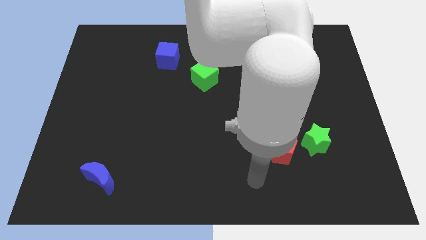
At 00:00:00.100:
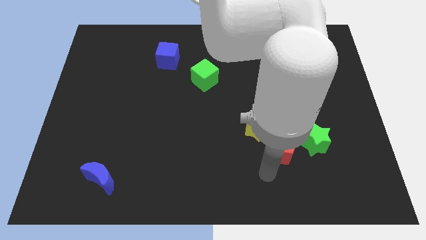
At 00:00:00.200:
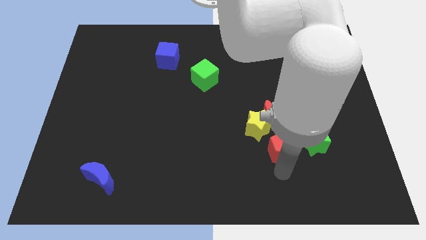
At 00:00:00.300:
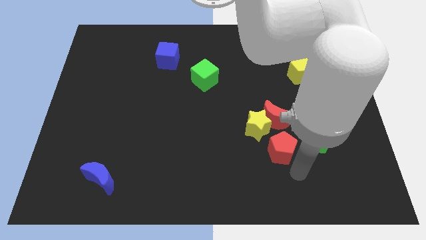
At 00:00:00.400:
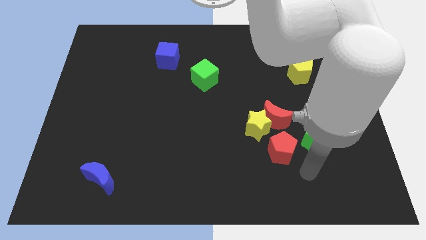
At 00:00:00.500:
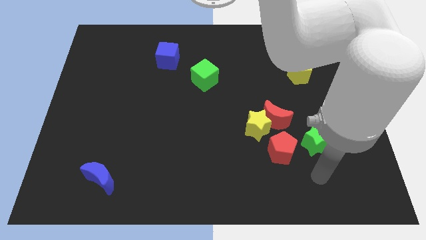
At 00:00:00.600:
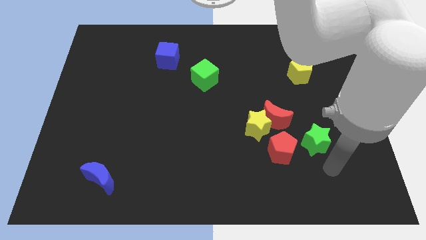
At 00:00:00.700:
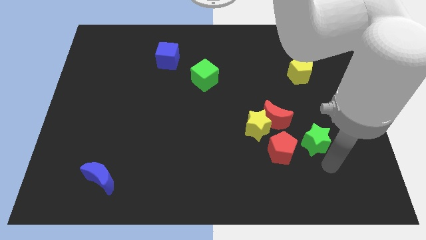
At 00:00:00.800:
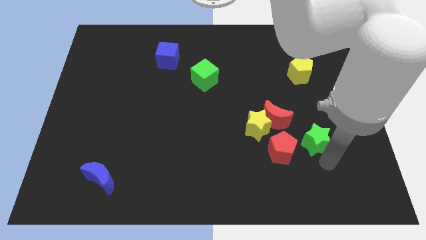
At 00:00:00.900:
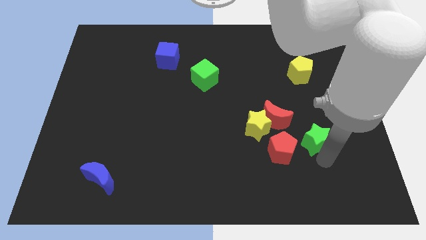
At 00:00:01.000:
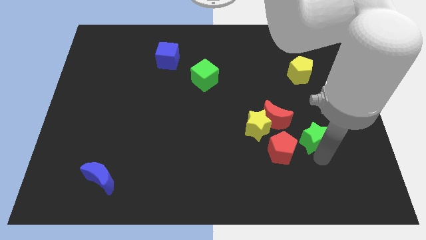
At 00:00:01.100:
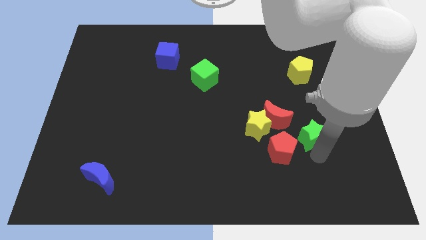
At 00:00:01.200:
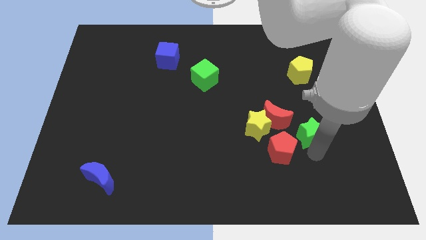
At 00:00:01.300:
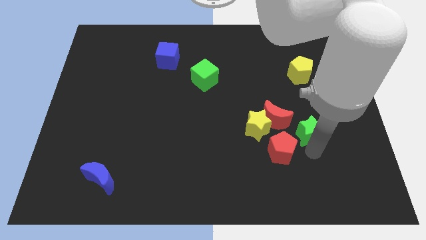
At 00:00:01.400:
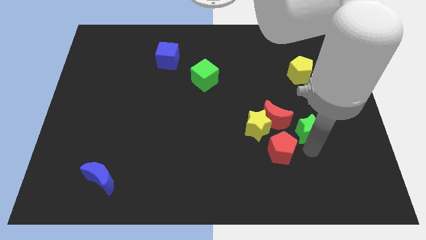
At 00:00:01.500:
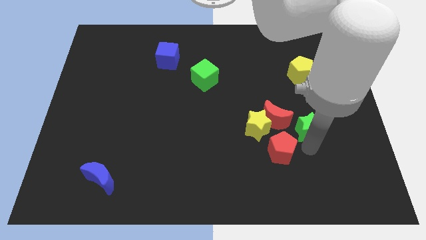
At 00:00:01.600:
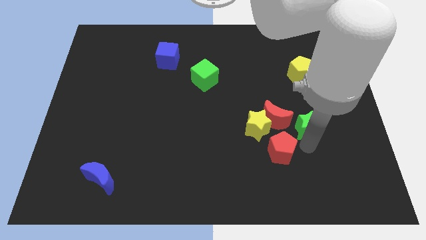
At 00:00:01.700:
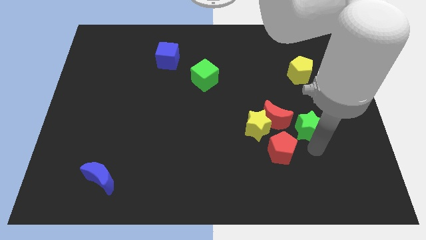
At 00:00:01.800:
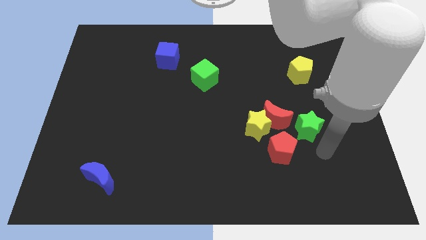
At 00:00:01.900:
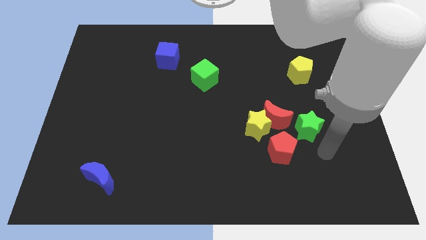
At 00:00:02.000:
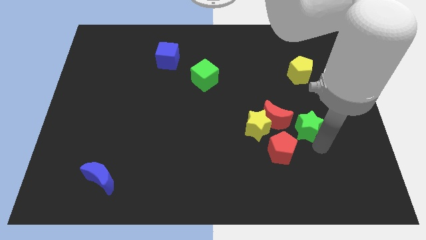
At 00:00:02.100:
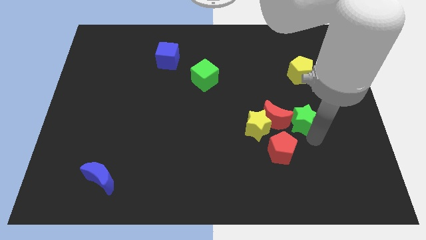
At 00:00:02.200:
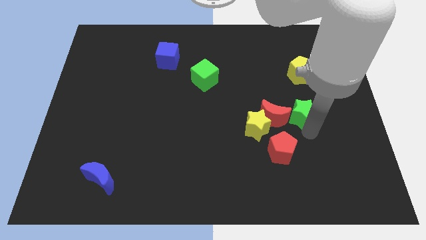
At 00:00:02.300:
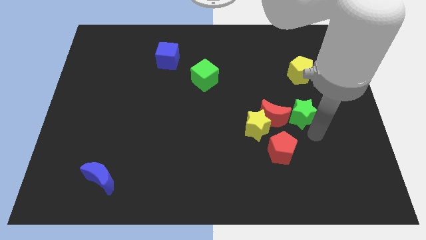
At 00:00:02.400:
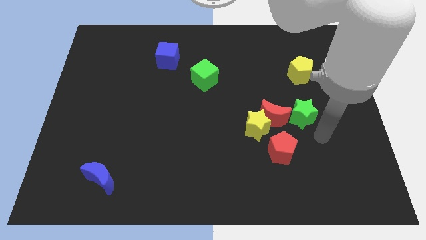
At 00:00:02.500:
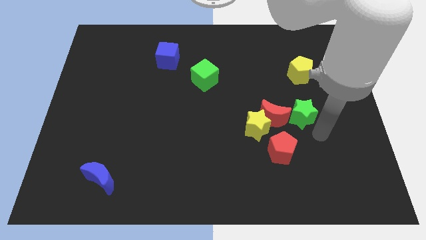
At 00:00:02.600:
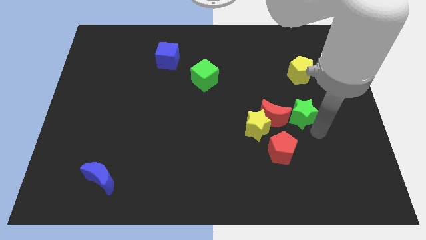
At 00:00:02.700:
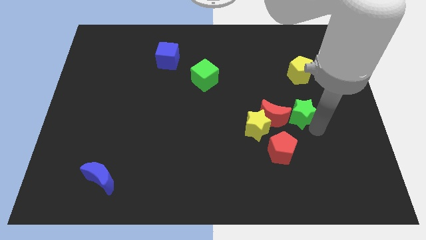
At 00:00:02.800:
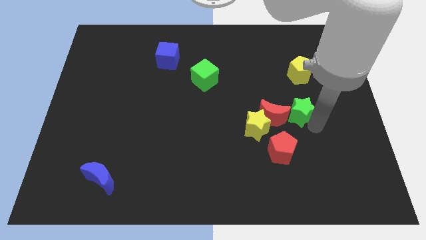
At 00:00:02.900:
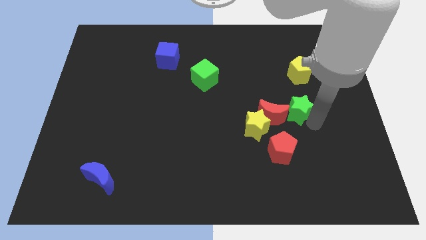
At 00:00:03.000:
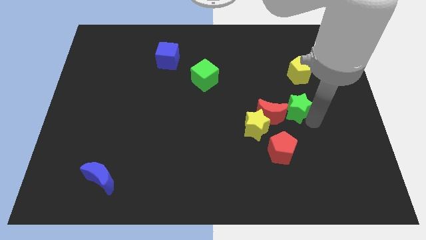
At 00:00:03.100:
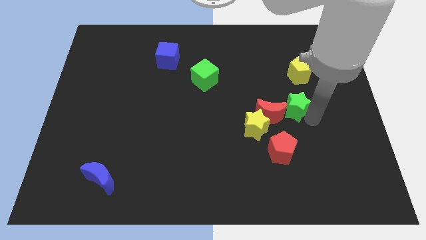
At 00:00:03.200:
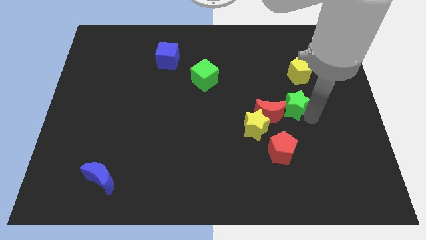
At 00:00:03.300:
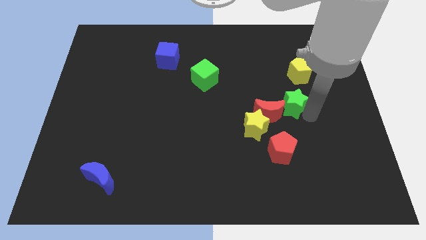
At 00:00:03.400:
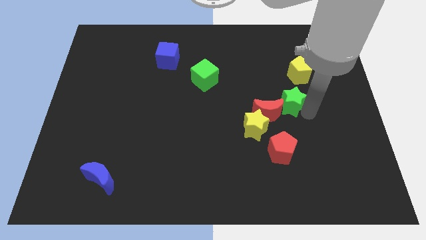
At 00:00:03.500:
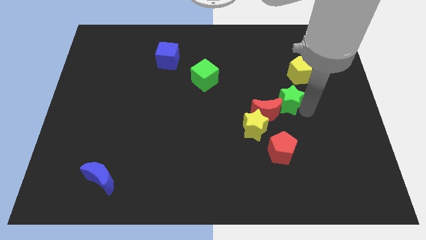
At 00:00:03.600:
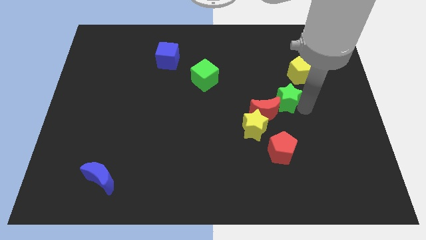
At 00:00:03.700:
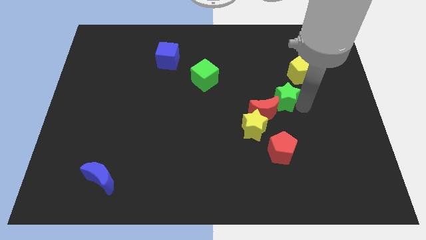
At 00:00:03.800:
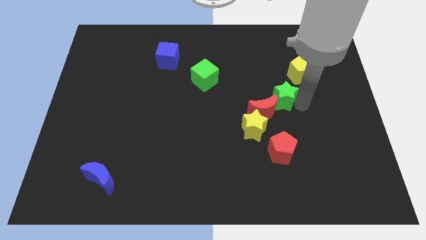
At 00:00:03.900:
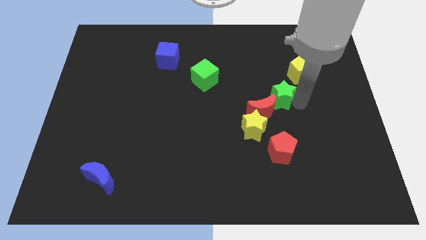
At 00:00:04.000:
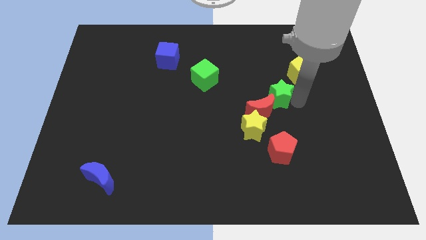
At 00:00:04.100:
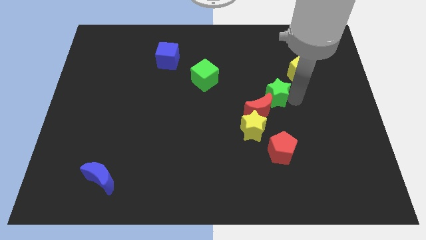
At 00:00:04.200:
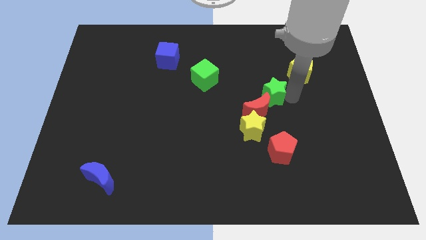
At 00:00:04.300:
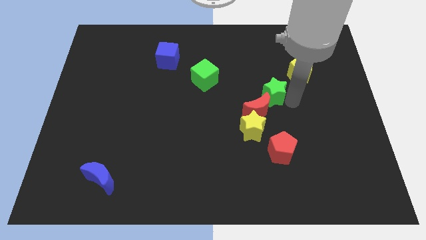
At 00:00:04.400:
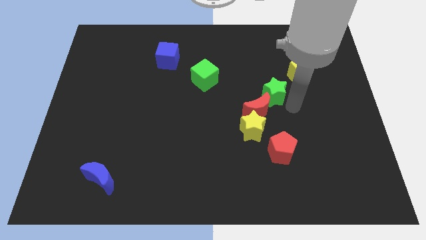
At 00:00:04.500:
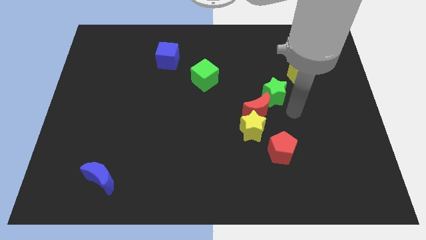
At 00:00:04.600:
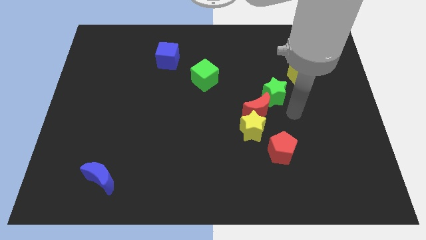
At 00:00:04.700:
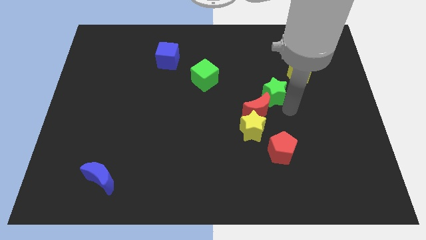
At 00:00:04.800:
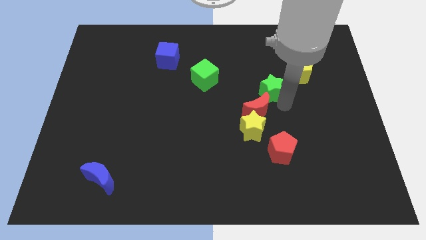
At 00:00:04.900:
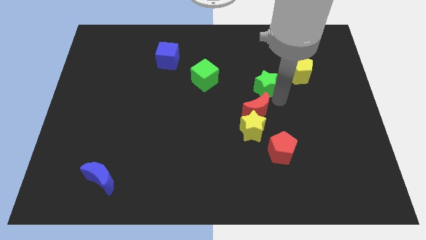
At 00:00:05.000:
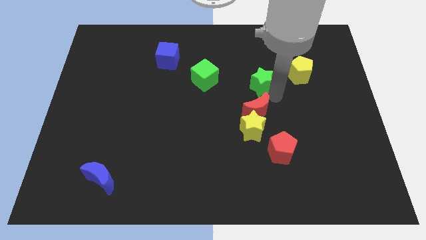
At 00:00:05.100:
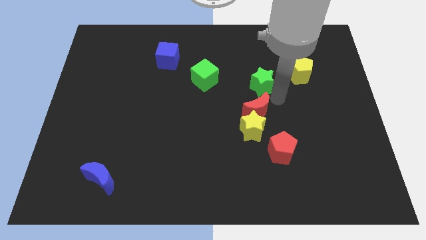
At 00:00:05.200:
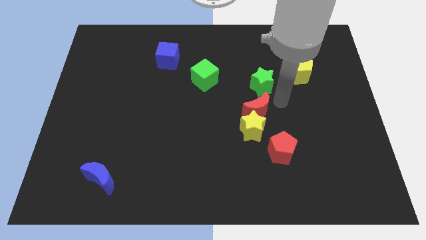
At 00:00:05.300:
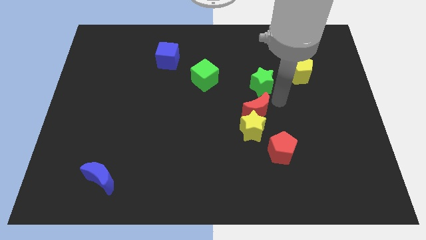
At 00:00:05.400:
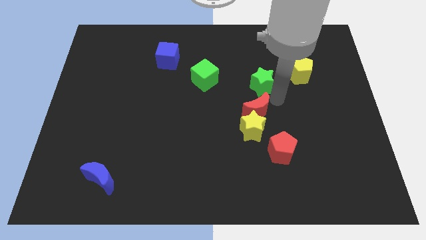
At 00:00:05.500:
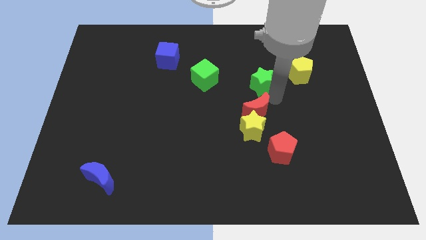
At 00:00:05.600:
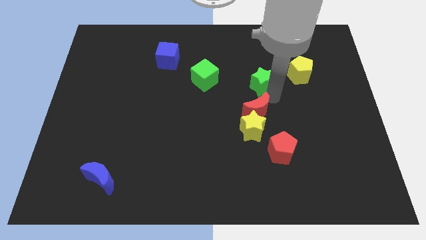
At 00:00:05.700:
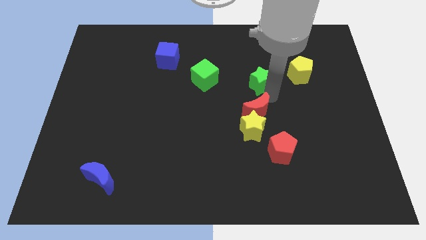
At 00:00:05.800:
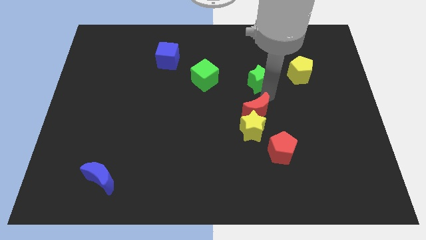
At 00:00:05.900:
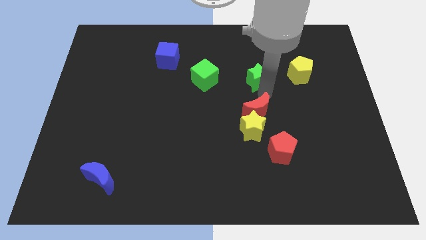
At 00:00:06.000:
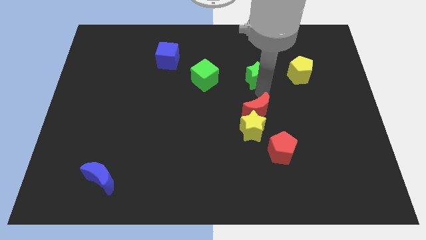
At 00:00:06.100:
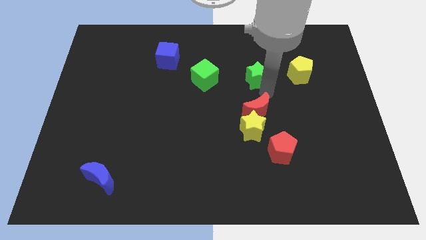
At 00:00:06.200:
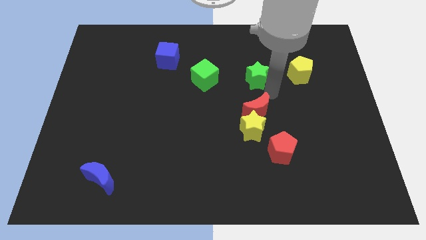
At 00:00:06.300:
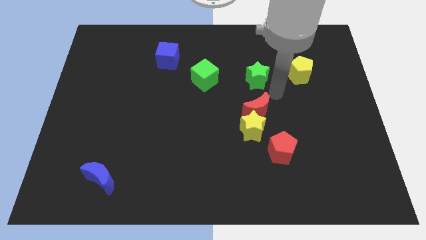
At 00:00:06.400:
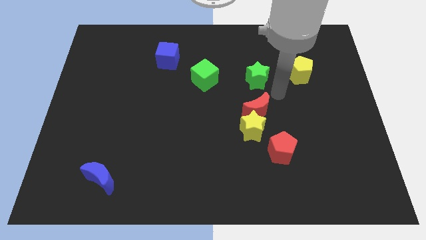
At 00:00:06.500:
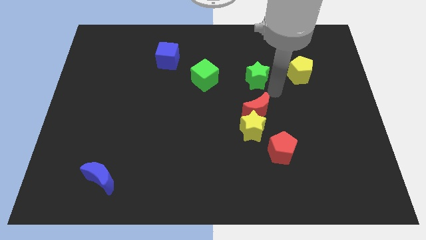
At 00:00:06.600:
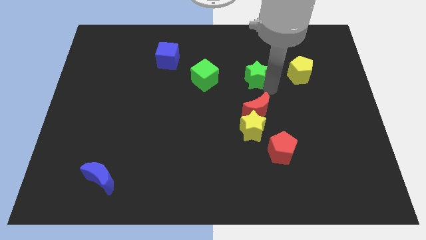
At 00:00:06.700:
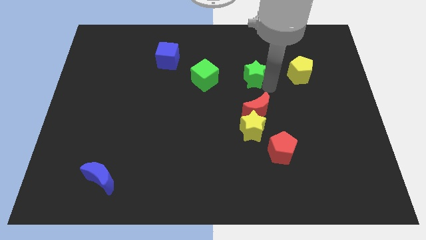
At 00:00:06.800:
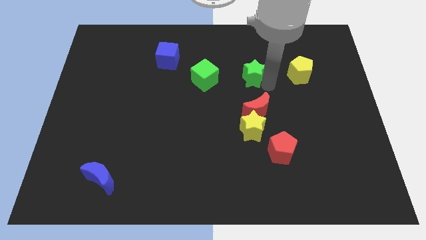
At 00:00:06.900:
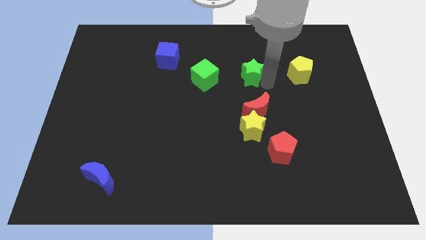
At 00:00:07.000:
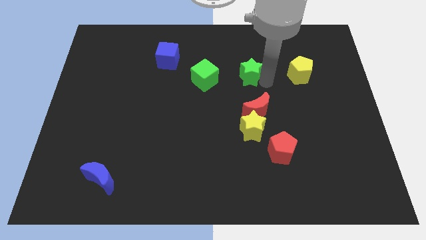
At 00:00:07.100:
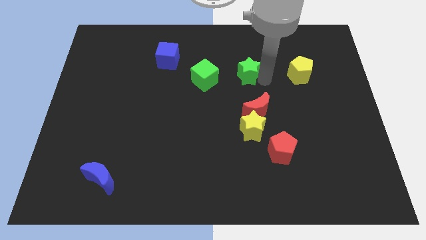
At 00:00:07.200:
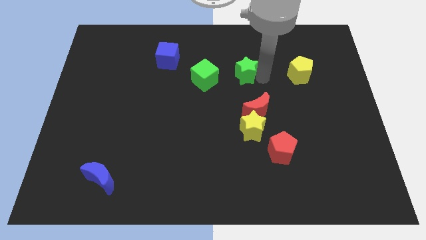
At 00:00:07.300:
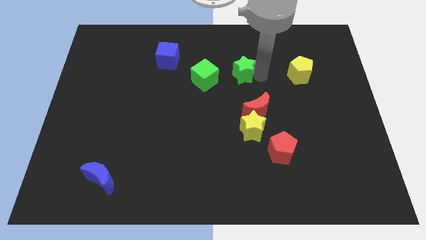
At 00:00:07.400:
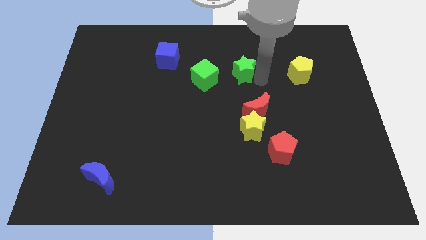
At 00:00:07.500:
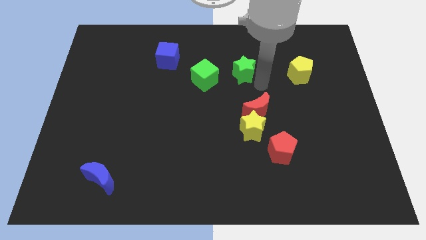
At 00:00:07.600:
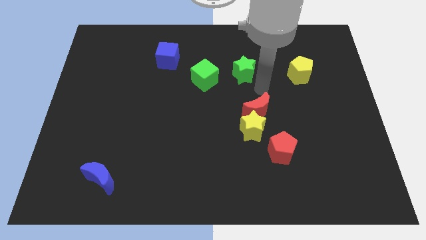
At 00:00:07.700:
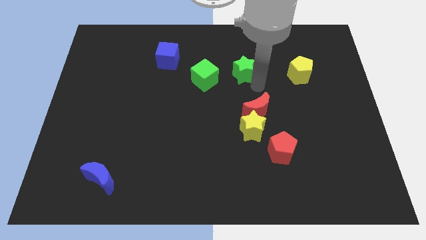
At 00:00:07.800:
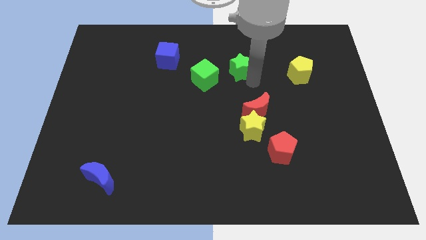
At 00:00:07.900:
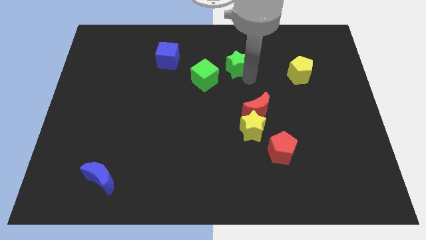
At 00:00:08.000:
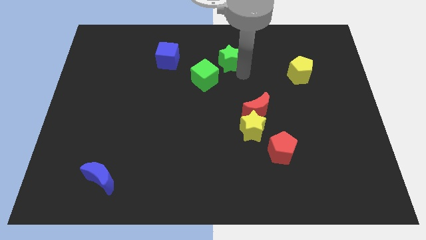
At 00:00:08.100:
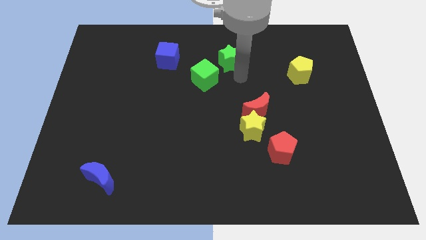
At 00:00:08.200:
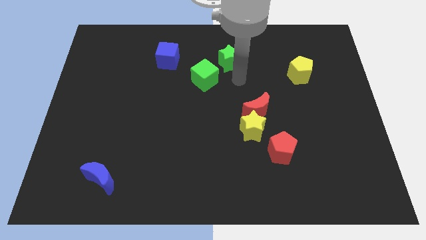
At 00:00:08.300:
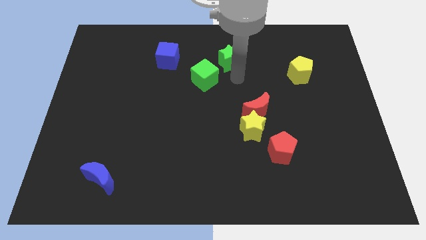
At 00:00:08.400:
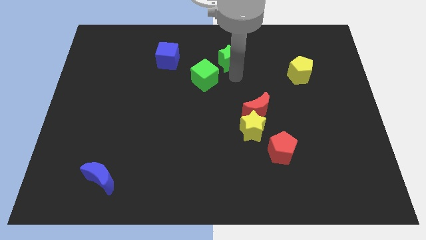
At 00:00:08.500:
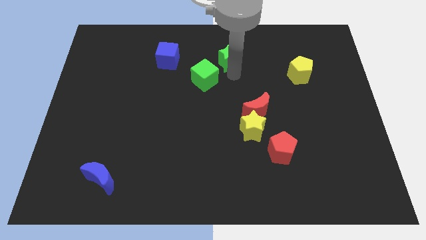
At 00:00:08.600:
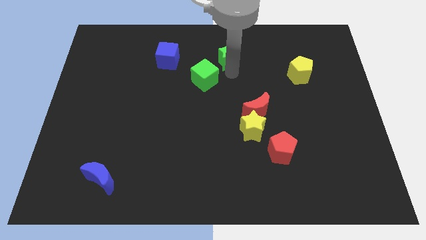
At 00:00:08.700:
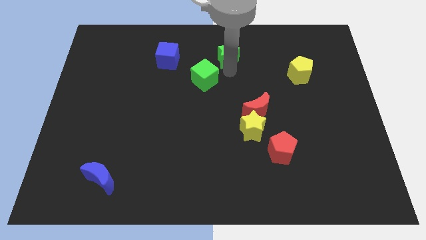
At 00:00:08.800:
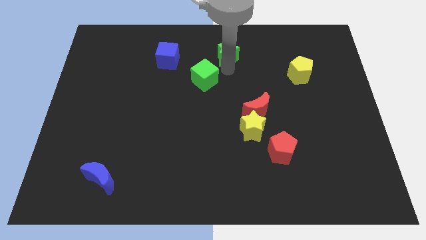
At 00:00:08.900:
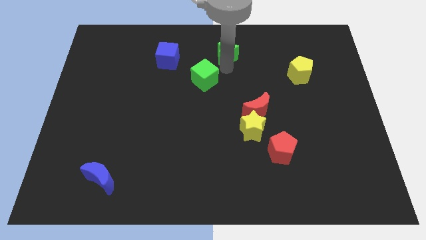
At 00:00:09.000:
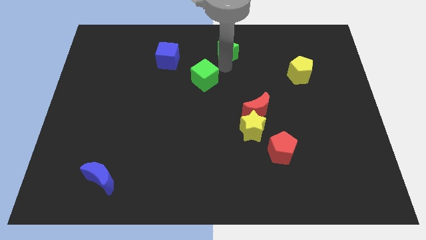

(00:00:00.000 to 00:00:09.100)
push the green star to the top
